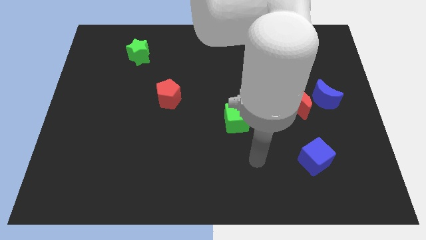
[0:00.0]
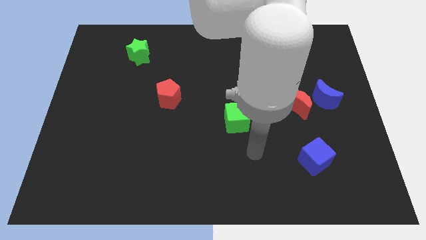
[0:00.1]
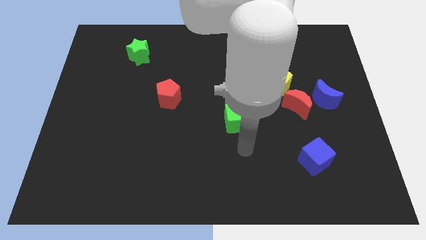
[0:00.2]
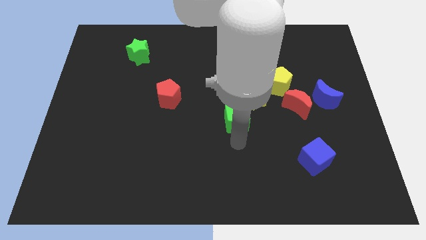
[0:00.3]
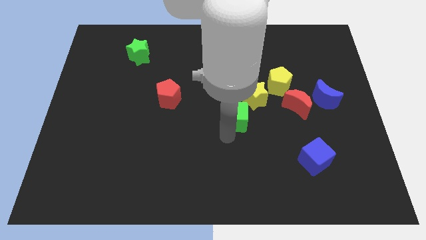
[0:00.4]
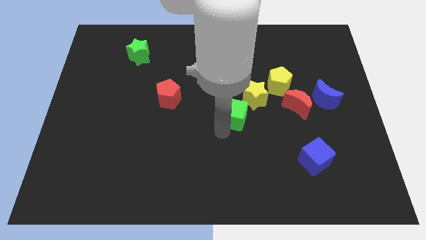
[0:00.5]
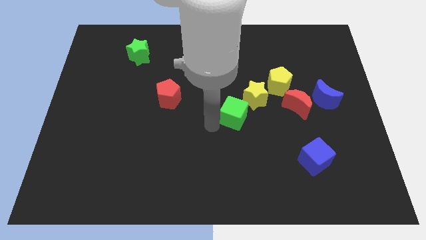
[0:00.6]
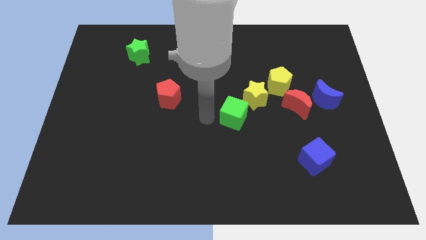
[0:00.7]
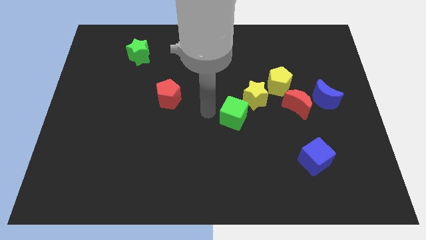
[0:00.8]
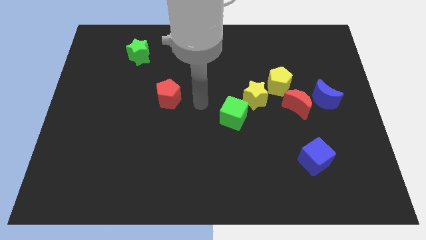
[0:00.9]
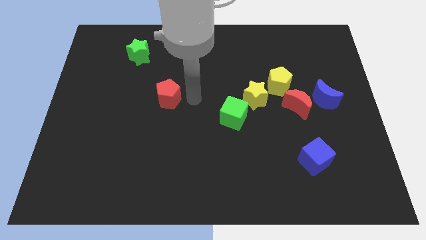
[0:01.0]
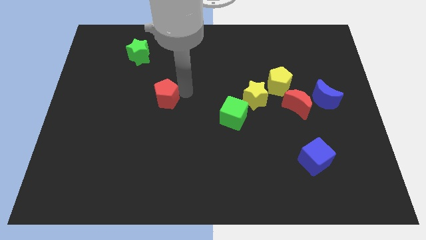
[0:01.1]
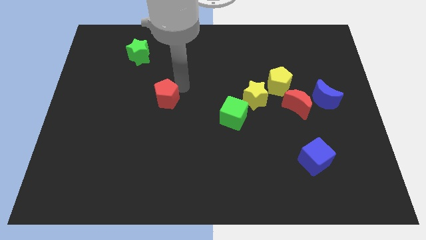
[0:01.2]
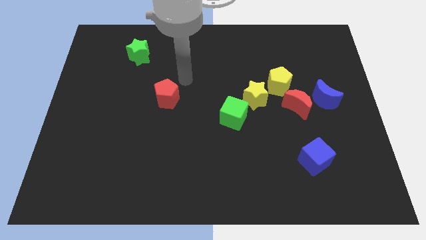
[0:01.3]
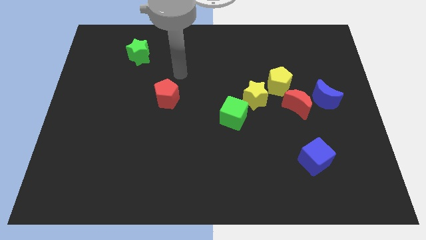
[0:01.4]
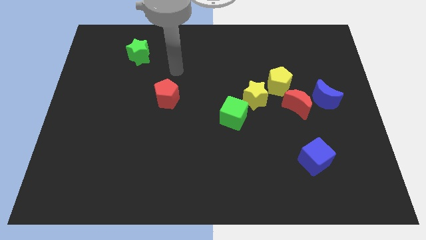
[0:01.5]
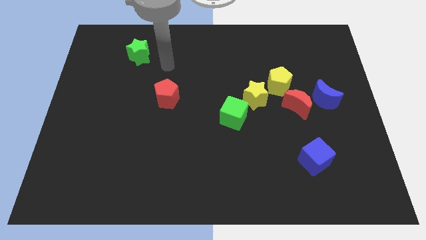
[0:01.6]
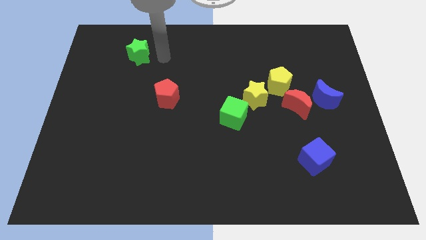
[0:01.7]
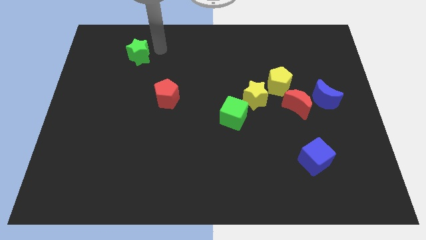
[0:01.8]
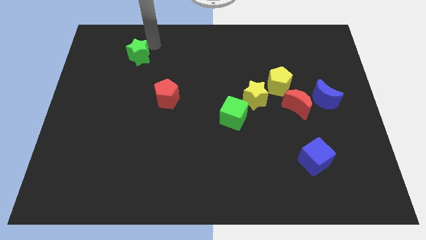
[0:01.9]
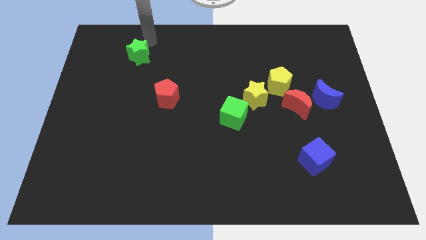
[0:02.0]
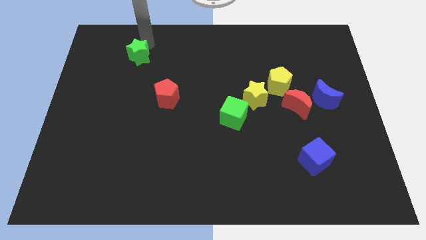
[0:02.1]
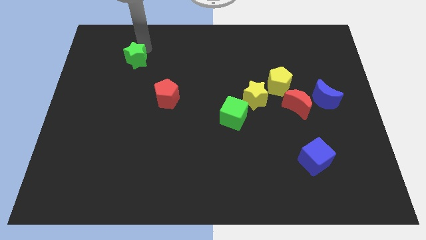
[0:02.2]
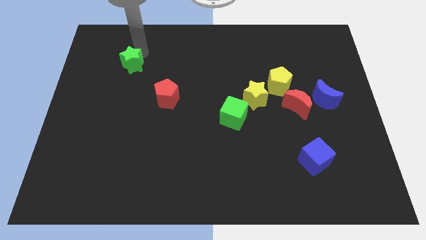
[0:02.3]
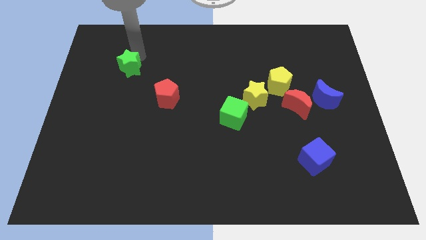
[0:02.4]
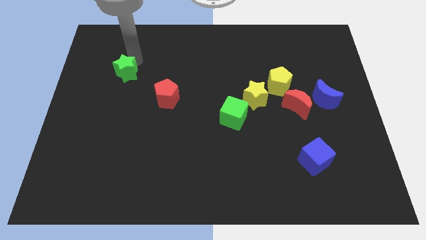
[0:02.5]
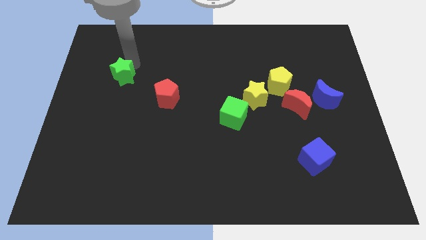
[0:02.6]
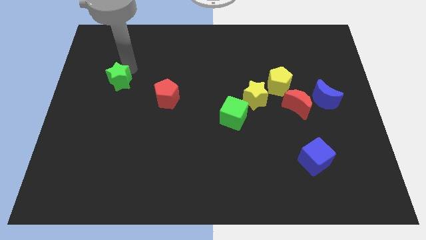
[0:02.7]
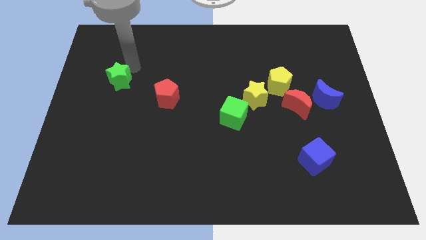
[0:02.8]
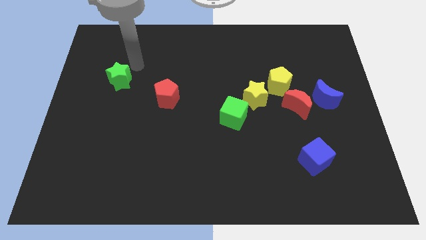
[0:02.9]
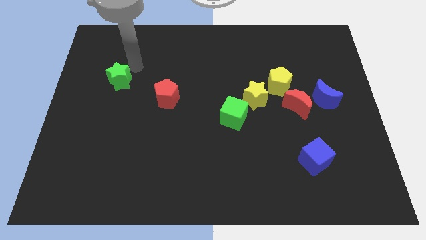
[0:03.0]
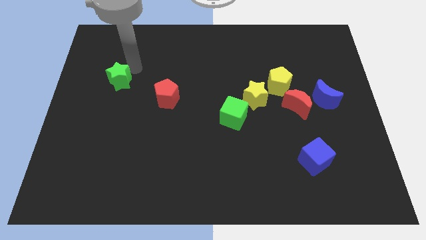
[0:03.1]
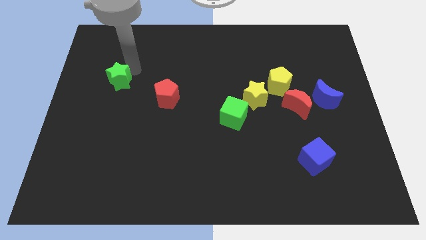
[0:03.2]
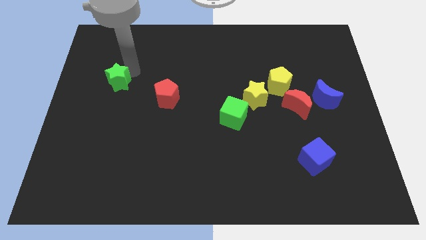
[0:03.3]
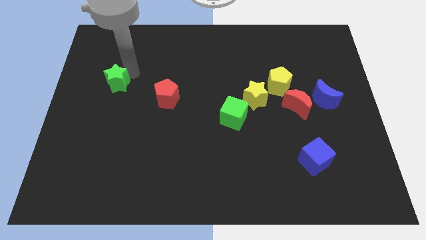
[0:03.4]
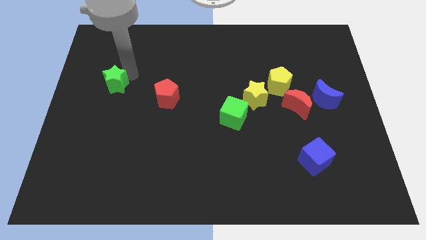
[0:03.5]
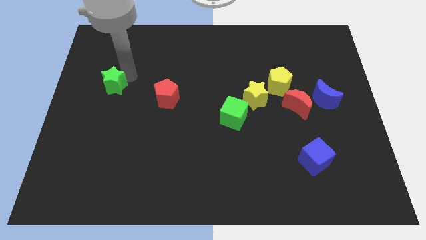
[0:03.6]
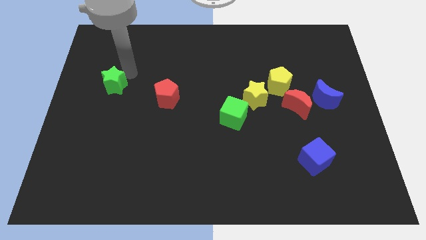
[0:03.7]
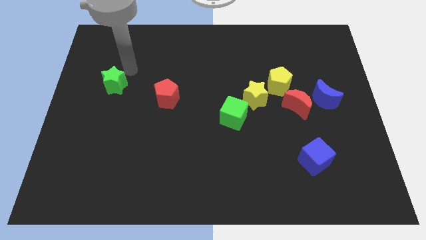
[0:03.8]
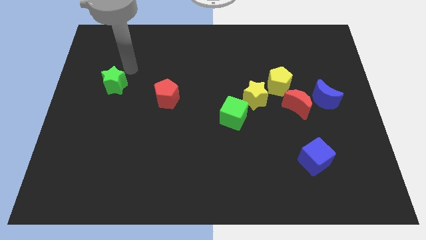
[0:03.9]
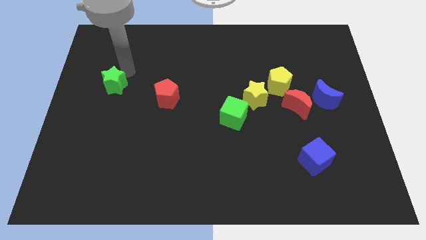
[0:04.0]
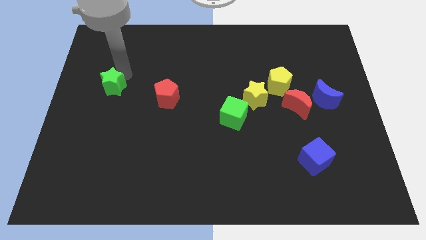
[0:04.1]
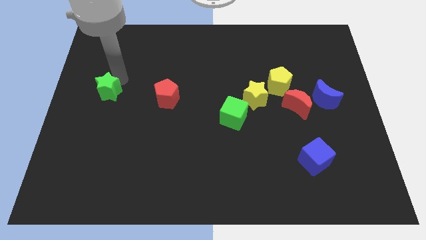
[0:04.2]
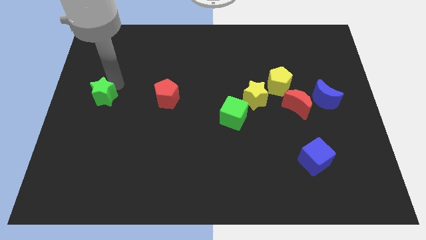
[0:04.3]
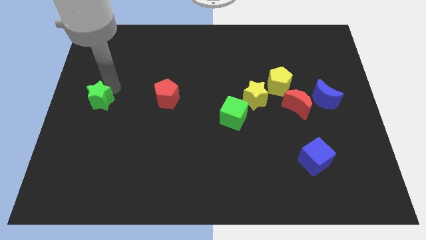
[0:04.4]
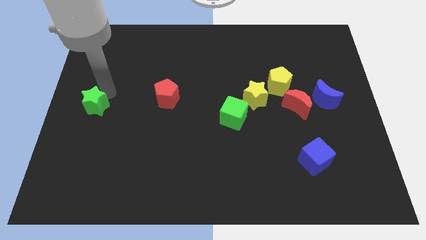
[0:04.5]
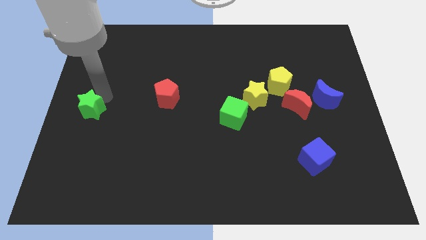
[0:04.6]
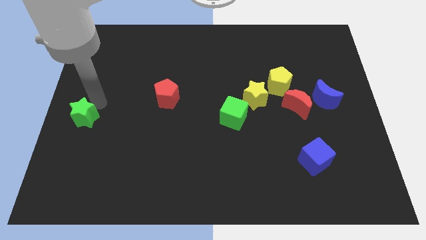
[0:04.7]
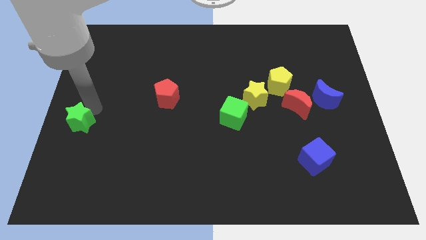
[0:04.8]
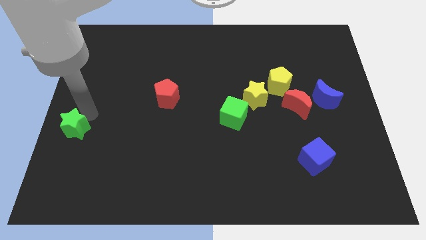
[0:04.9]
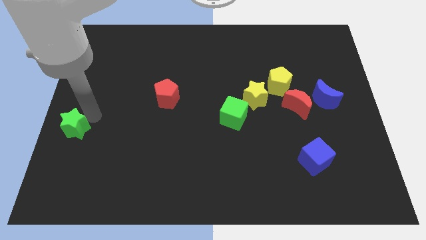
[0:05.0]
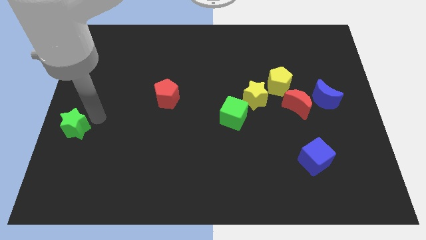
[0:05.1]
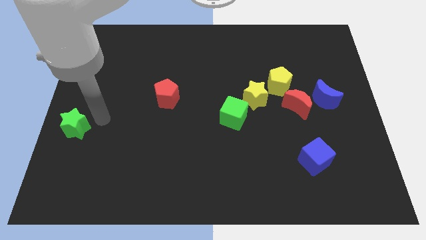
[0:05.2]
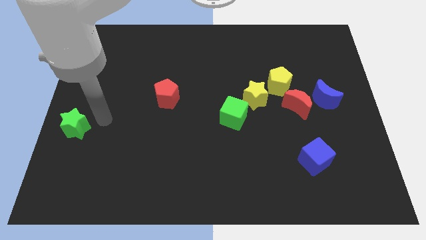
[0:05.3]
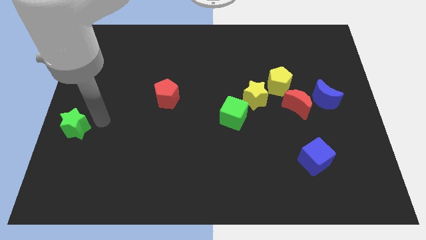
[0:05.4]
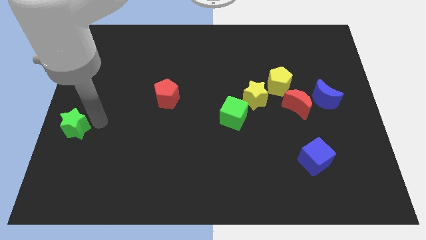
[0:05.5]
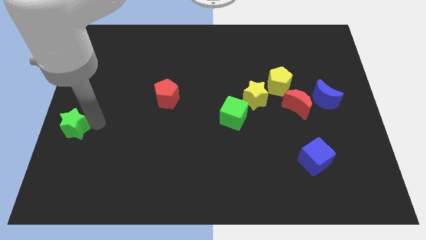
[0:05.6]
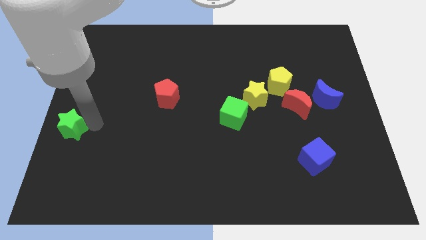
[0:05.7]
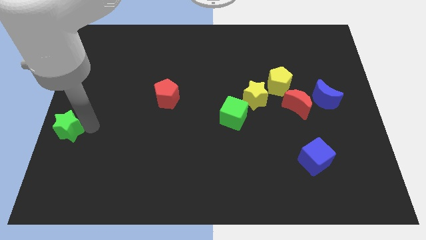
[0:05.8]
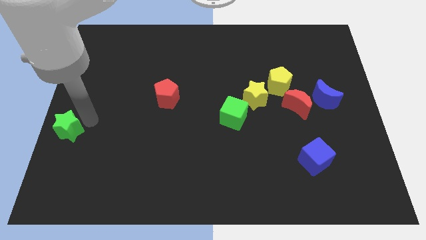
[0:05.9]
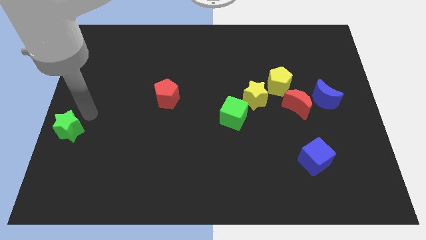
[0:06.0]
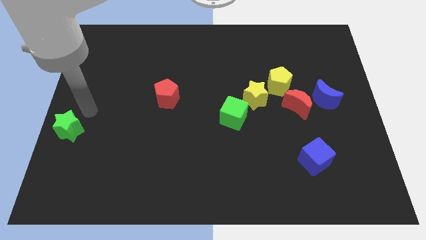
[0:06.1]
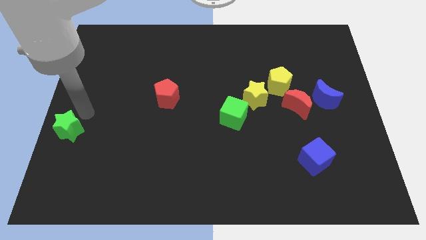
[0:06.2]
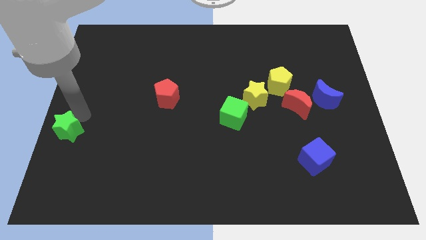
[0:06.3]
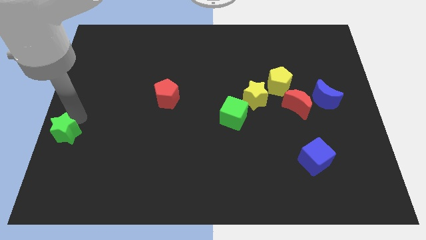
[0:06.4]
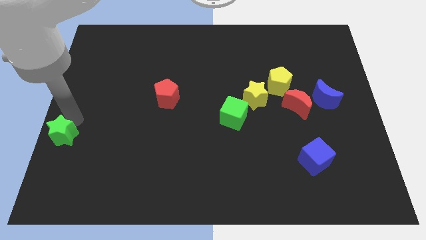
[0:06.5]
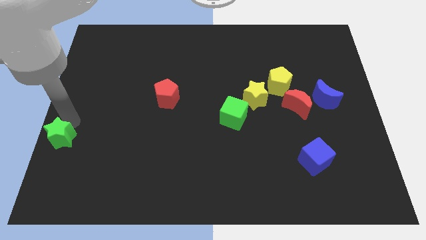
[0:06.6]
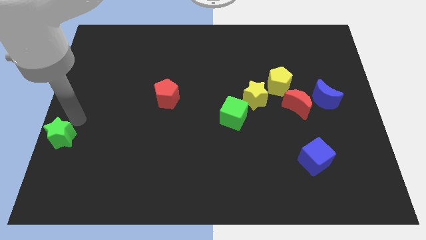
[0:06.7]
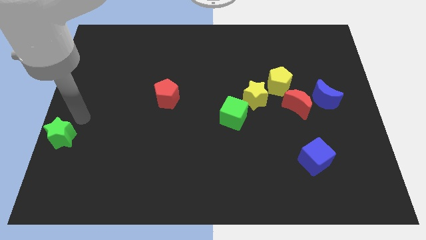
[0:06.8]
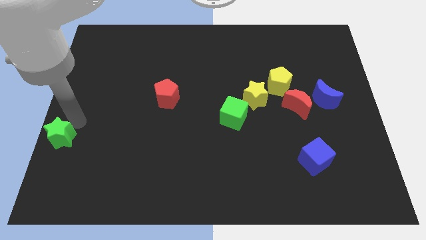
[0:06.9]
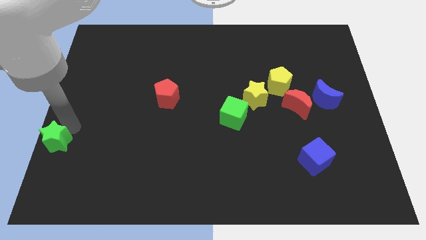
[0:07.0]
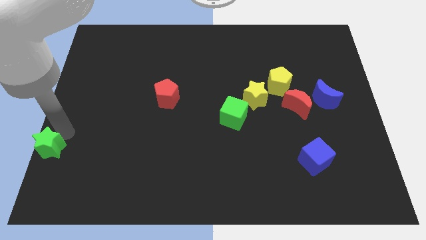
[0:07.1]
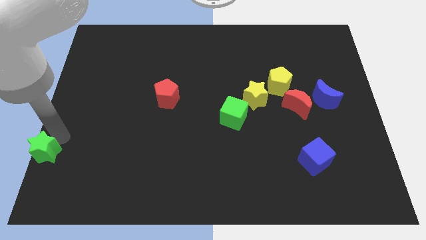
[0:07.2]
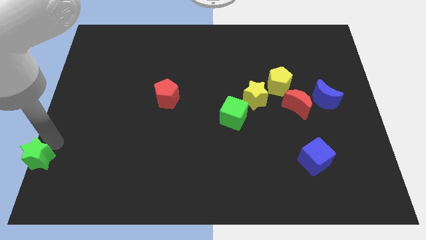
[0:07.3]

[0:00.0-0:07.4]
move the green star to the bottom left

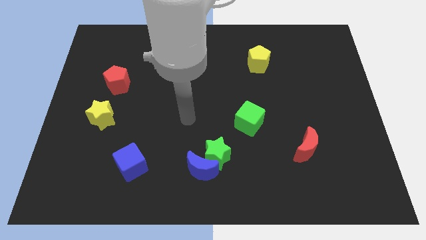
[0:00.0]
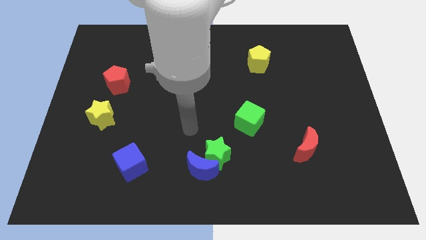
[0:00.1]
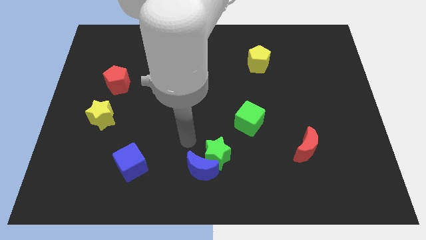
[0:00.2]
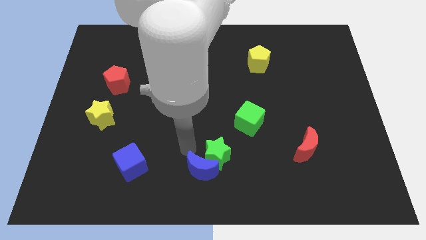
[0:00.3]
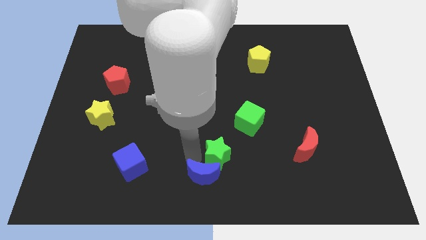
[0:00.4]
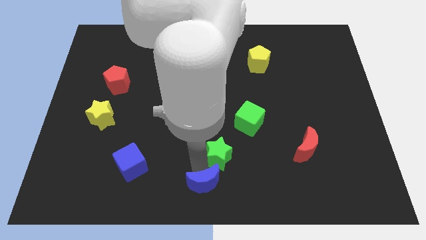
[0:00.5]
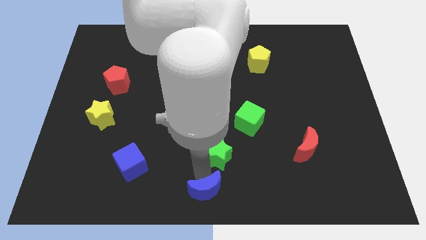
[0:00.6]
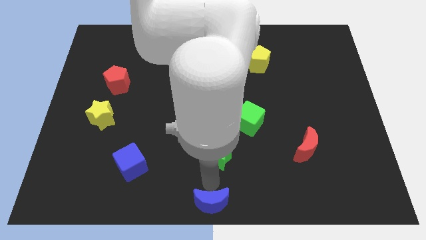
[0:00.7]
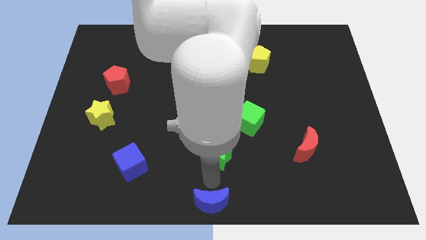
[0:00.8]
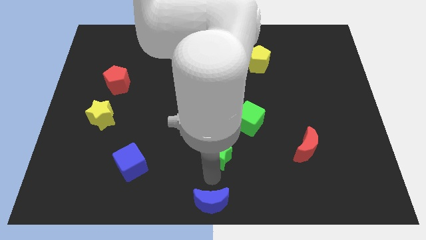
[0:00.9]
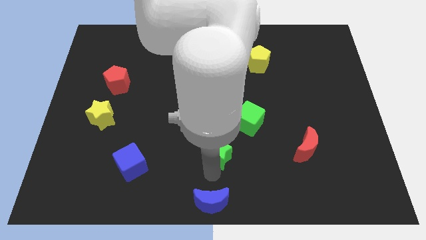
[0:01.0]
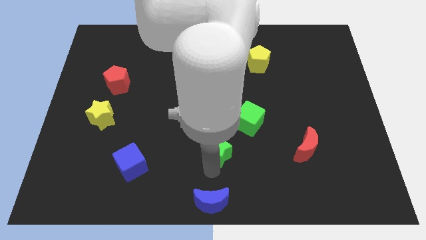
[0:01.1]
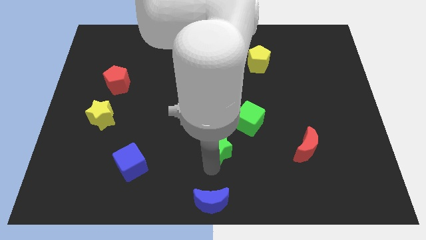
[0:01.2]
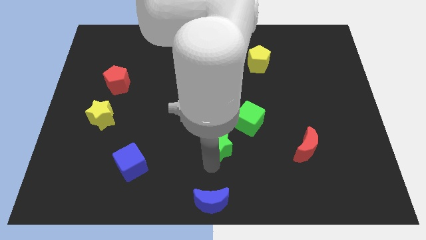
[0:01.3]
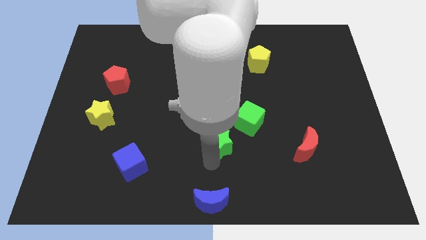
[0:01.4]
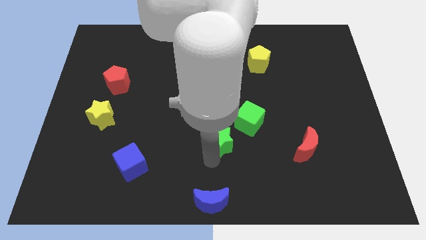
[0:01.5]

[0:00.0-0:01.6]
put the green star to the middle of the board
